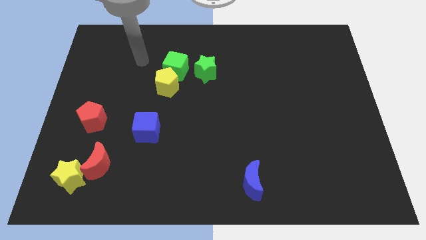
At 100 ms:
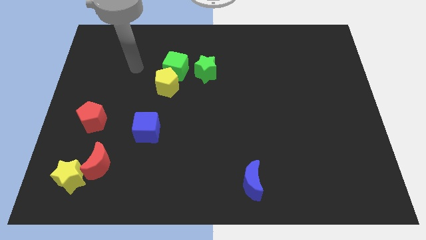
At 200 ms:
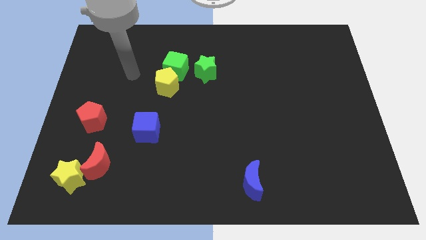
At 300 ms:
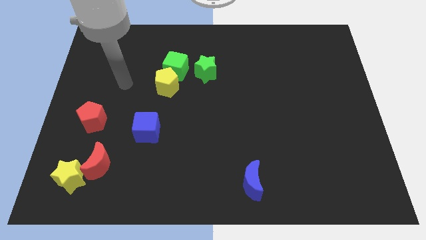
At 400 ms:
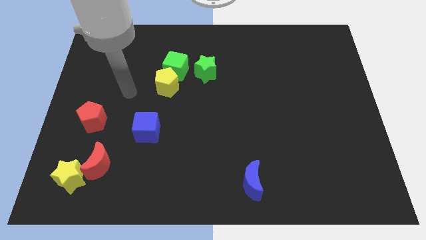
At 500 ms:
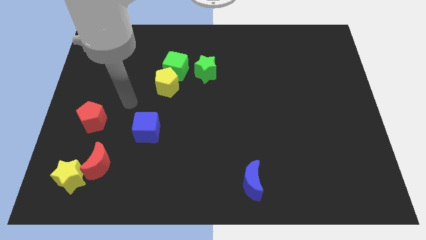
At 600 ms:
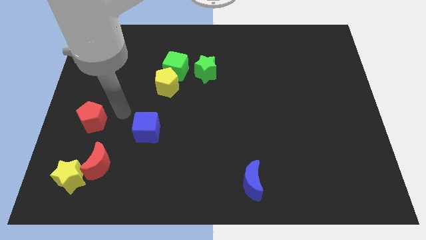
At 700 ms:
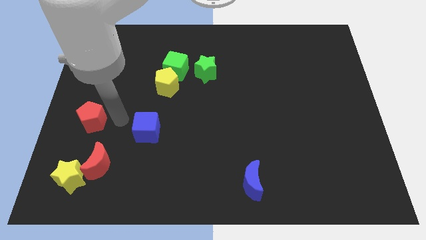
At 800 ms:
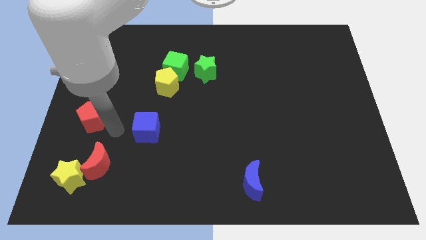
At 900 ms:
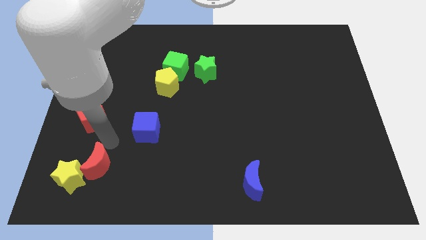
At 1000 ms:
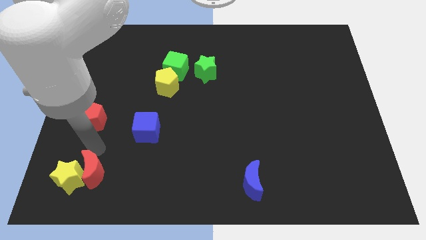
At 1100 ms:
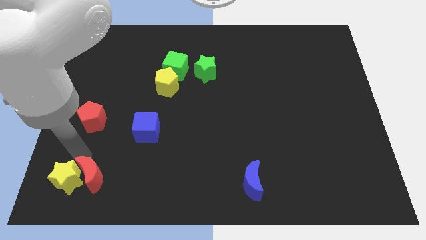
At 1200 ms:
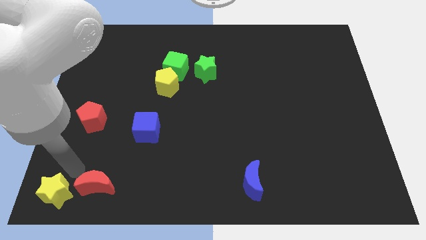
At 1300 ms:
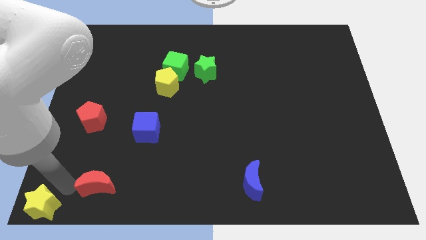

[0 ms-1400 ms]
pull the red moon apart from the yellow star

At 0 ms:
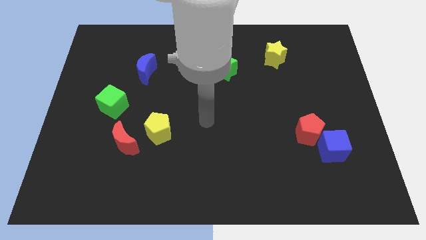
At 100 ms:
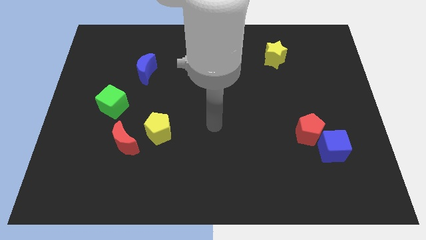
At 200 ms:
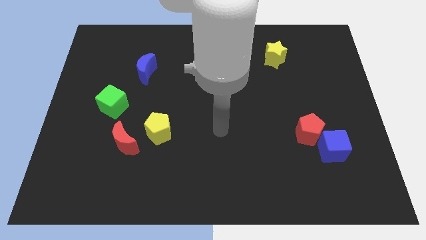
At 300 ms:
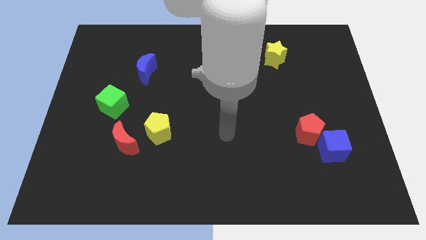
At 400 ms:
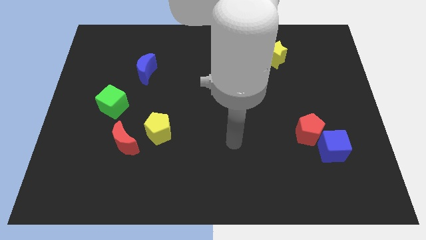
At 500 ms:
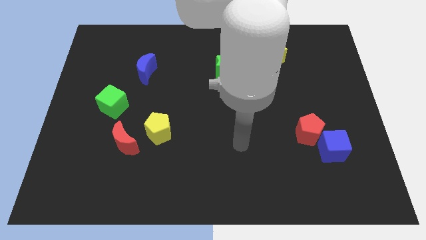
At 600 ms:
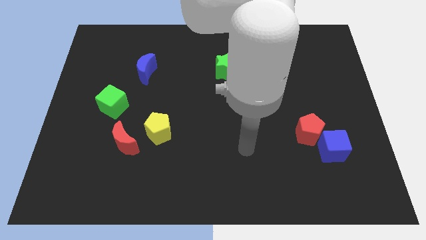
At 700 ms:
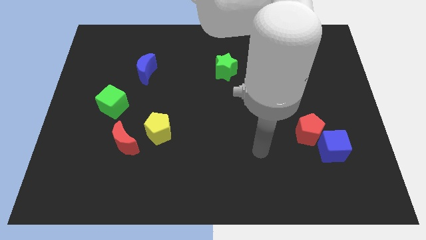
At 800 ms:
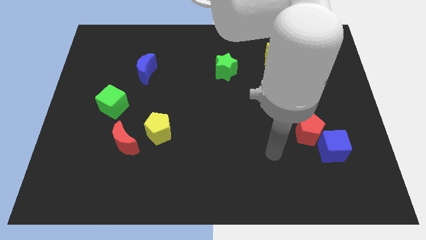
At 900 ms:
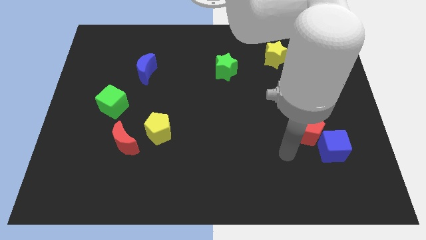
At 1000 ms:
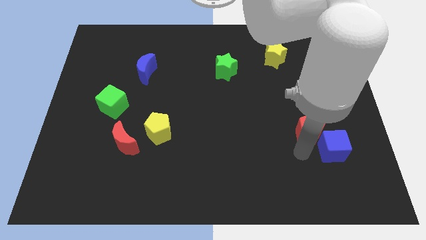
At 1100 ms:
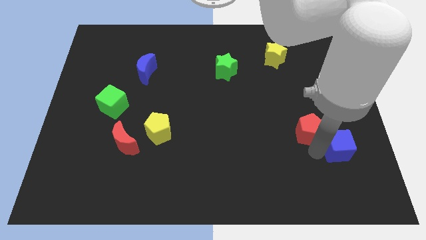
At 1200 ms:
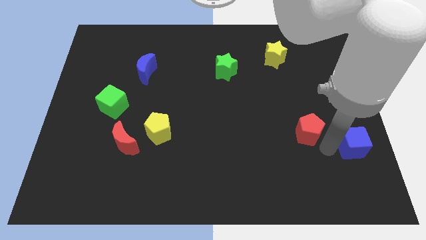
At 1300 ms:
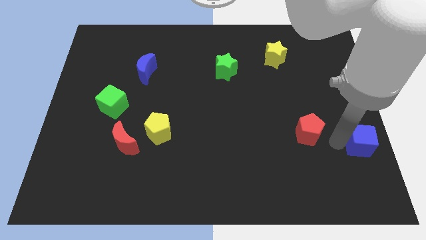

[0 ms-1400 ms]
move the red pentagon away from the blue cube

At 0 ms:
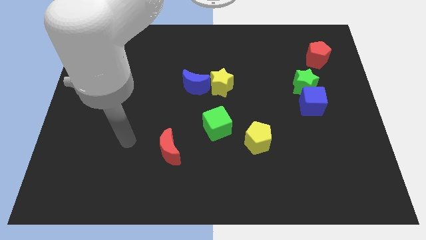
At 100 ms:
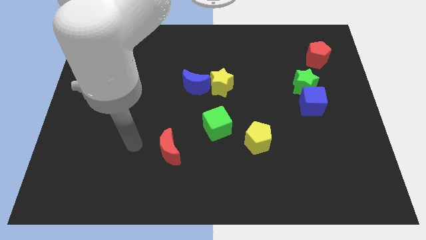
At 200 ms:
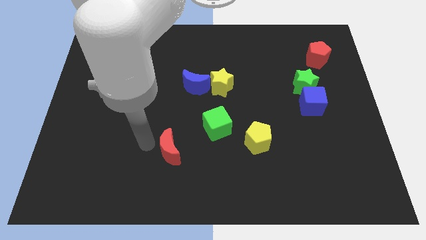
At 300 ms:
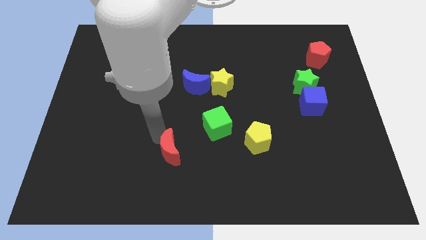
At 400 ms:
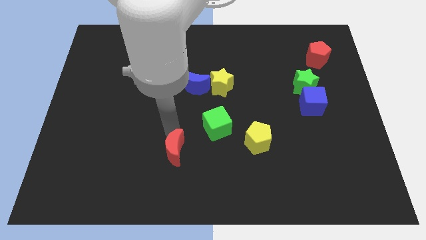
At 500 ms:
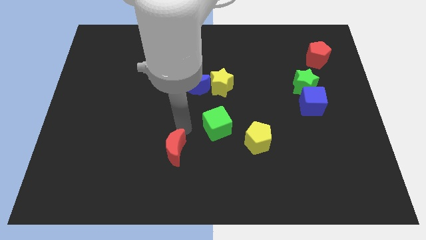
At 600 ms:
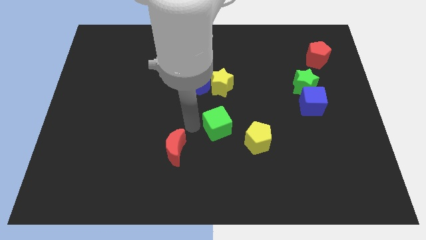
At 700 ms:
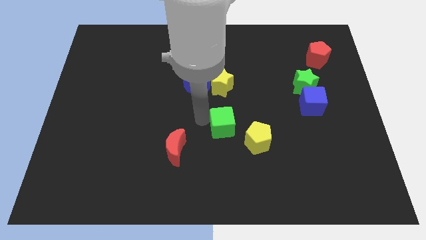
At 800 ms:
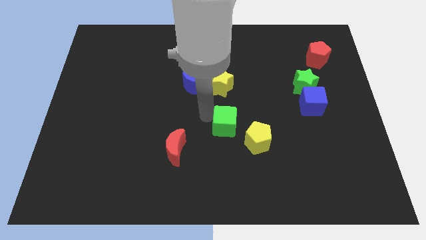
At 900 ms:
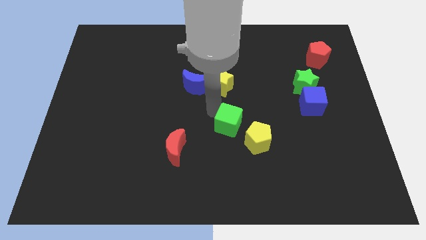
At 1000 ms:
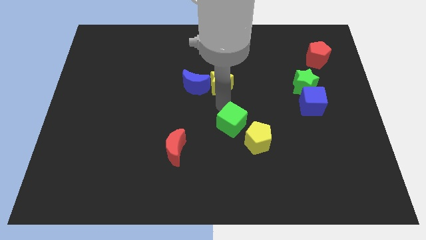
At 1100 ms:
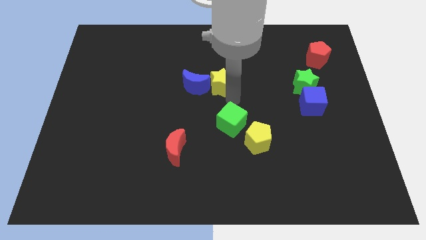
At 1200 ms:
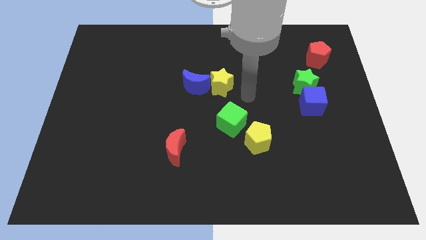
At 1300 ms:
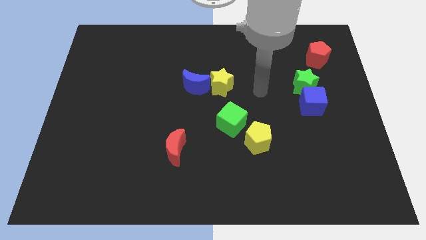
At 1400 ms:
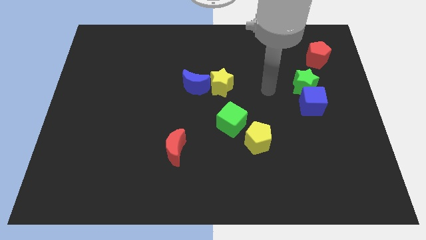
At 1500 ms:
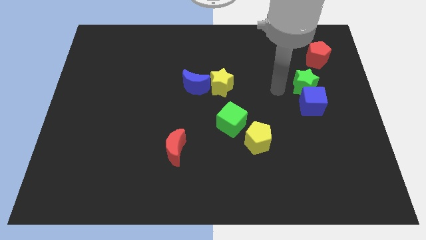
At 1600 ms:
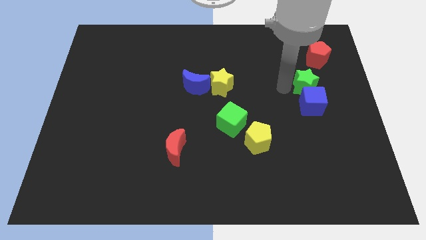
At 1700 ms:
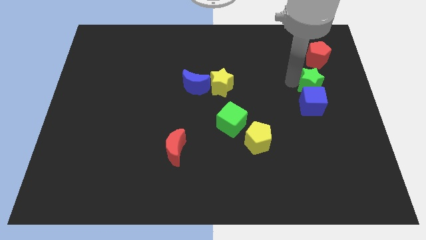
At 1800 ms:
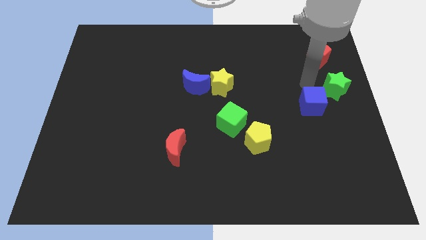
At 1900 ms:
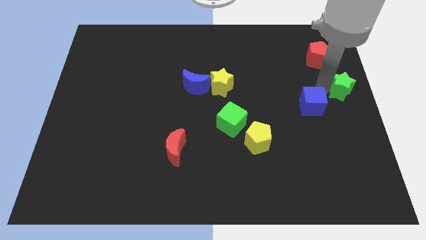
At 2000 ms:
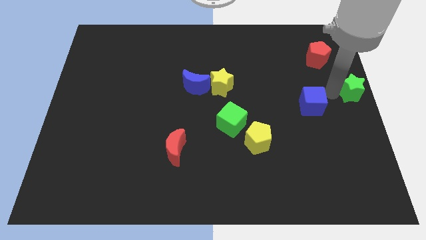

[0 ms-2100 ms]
separate the blue cube from the green star

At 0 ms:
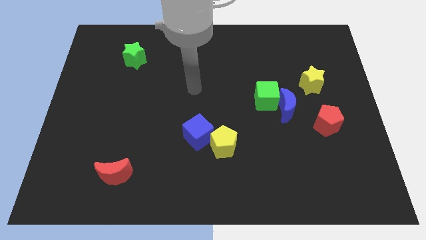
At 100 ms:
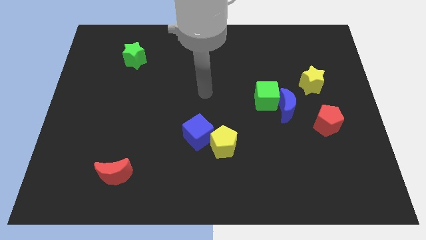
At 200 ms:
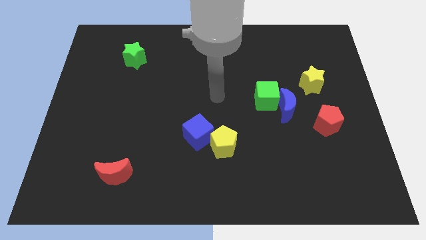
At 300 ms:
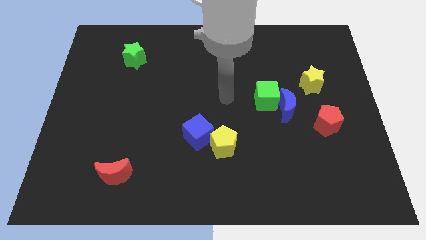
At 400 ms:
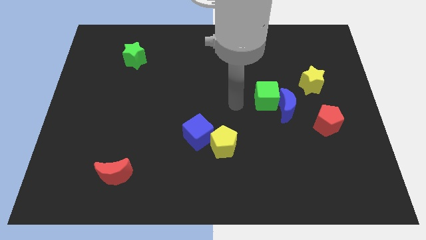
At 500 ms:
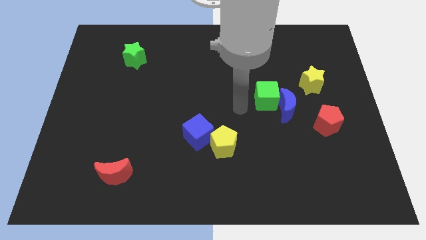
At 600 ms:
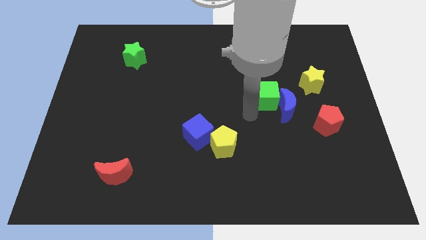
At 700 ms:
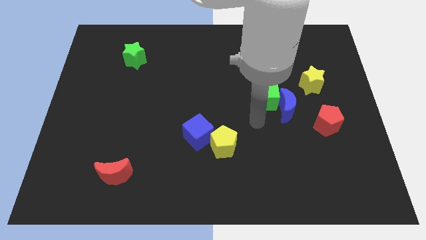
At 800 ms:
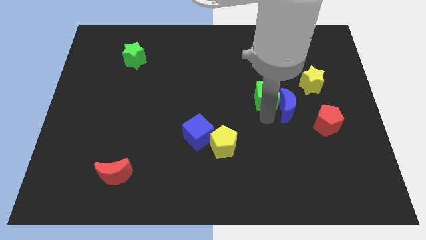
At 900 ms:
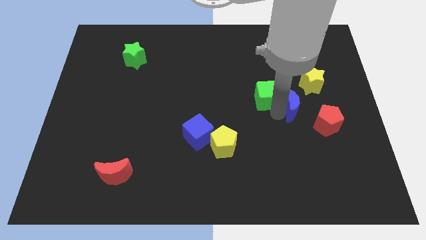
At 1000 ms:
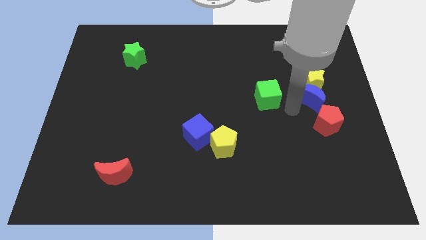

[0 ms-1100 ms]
pull the green cube apart from the blue moon

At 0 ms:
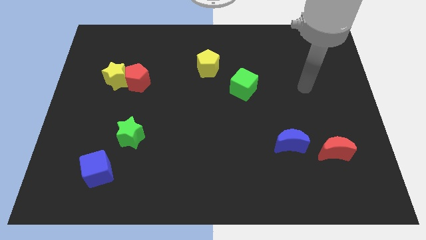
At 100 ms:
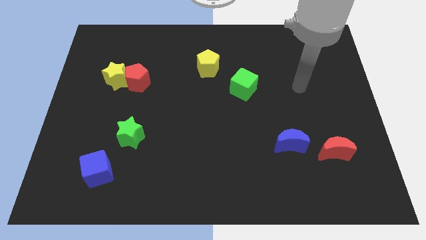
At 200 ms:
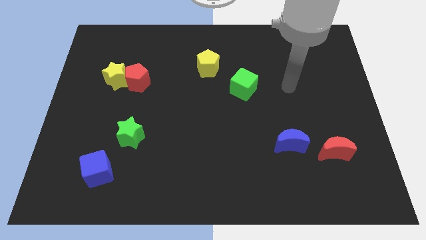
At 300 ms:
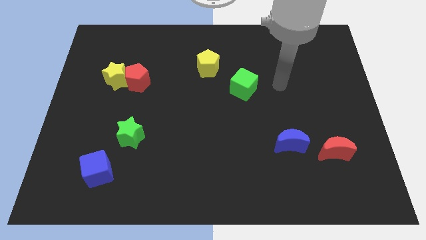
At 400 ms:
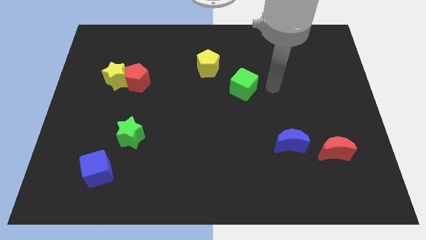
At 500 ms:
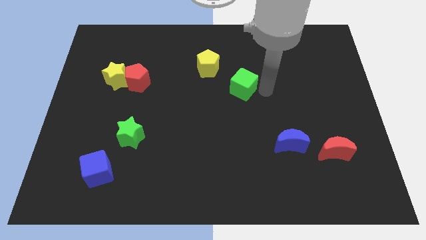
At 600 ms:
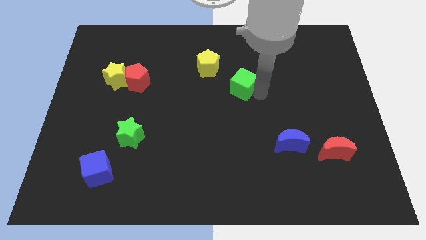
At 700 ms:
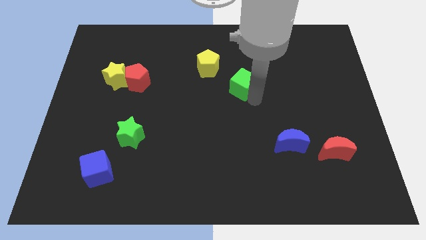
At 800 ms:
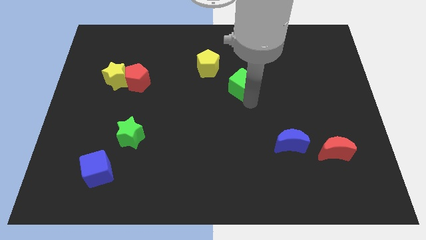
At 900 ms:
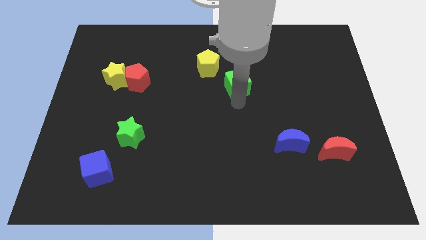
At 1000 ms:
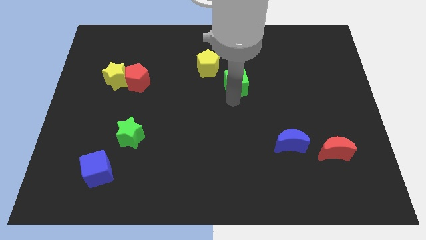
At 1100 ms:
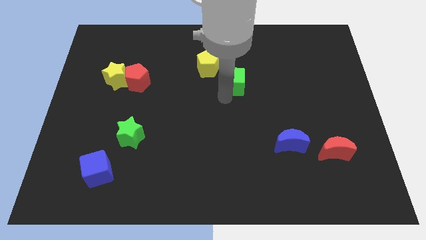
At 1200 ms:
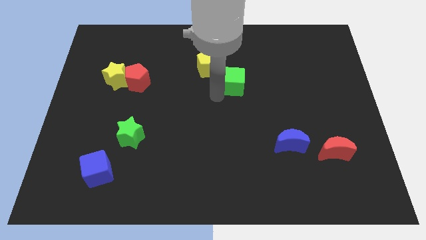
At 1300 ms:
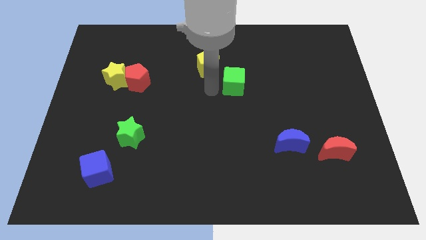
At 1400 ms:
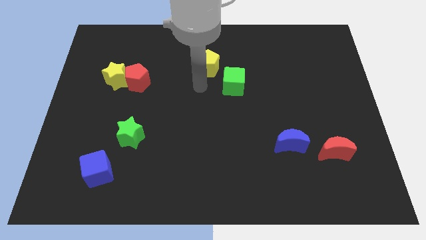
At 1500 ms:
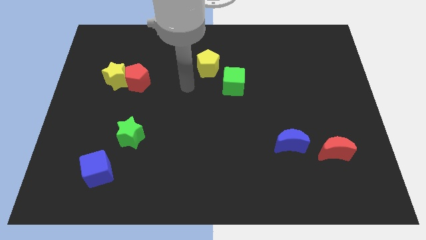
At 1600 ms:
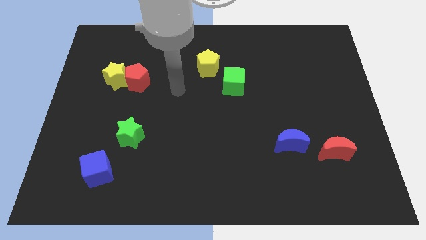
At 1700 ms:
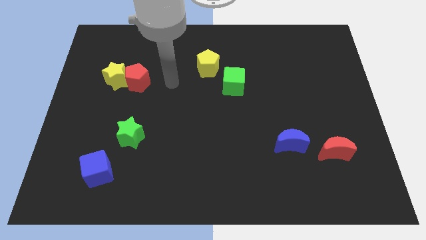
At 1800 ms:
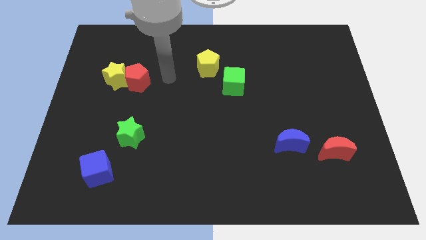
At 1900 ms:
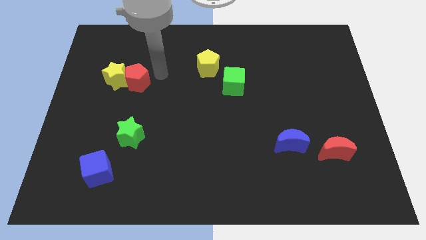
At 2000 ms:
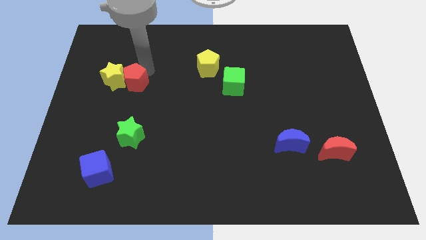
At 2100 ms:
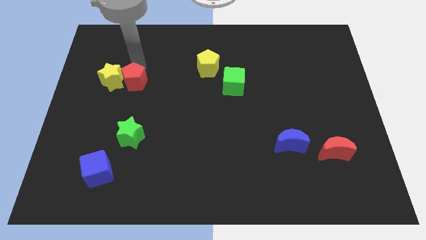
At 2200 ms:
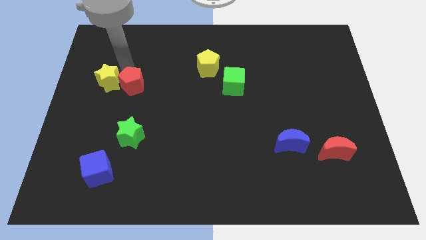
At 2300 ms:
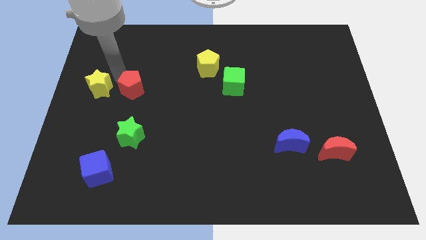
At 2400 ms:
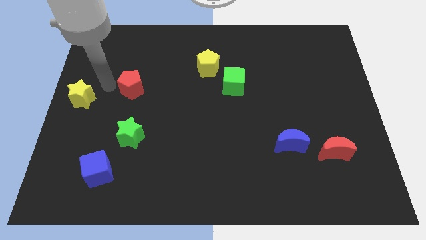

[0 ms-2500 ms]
move the red pentagon away from the yellow star

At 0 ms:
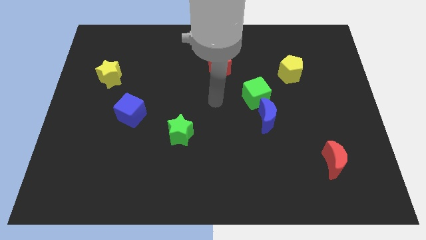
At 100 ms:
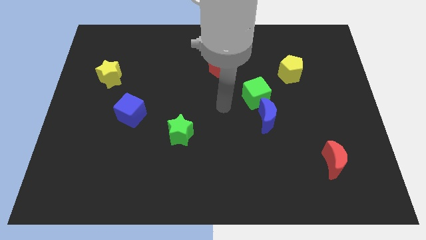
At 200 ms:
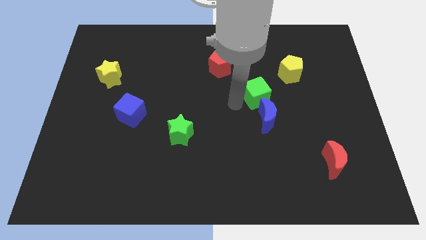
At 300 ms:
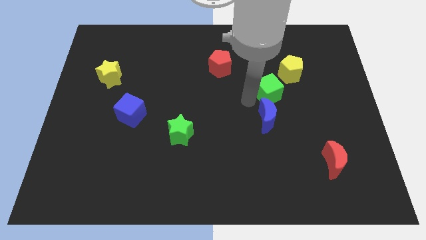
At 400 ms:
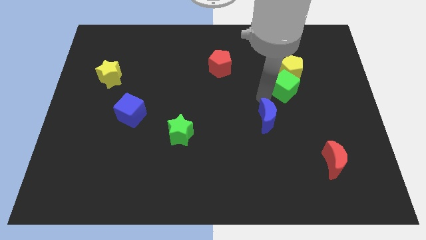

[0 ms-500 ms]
pull the blue moon apart from the green cube

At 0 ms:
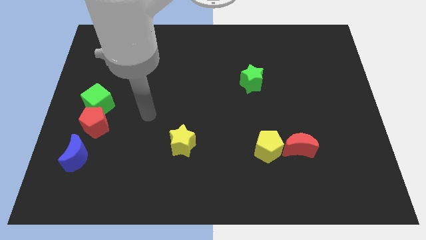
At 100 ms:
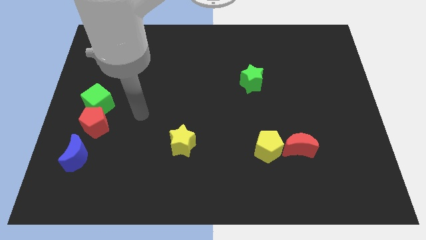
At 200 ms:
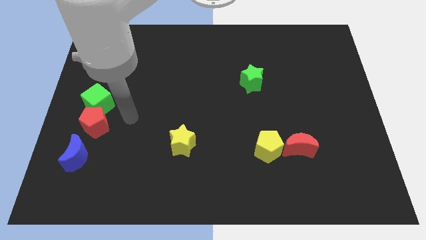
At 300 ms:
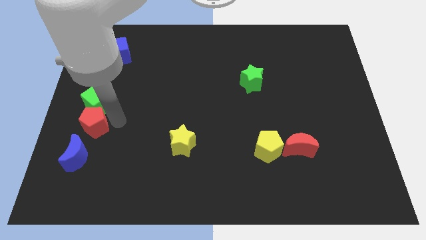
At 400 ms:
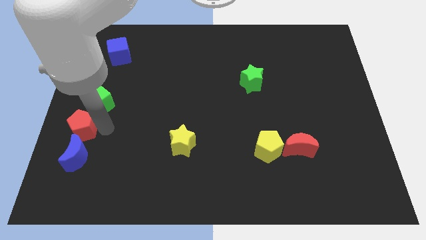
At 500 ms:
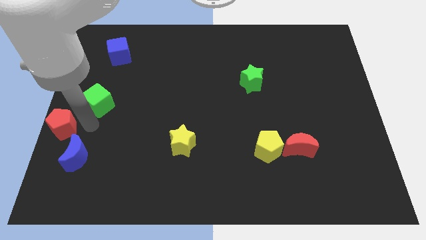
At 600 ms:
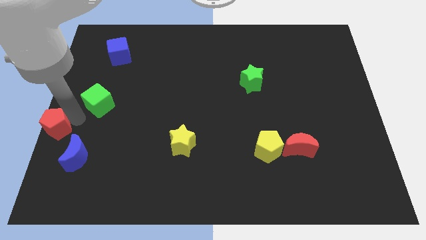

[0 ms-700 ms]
separate the green cube from the red pentagon
